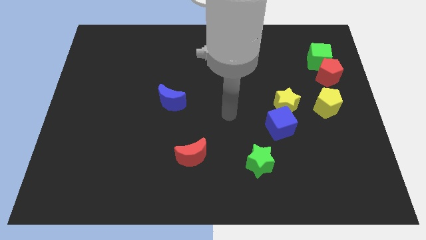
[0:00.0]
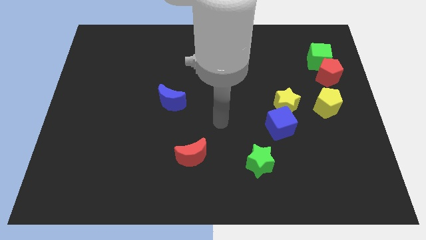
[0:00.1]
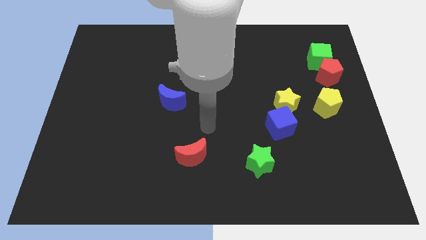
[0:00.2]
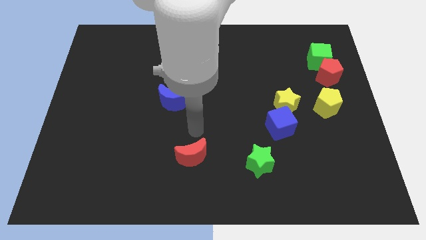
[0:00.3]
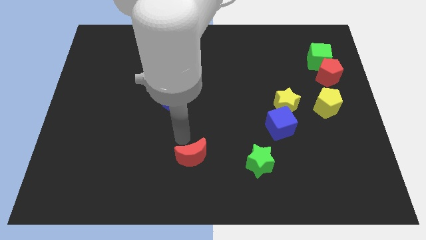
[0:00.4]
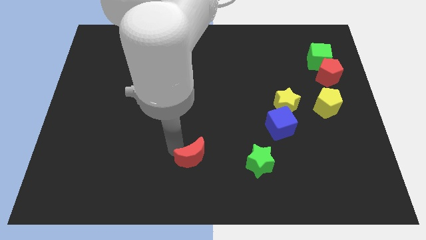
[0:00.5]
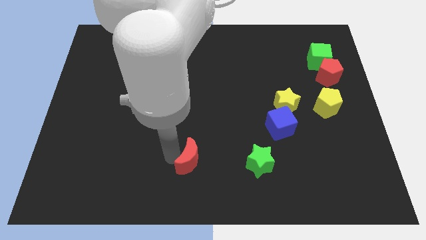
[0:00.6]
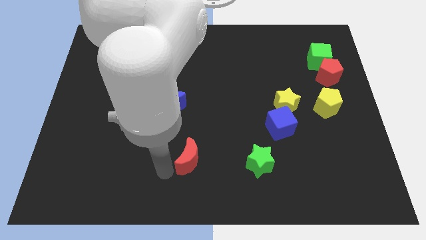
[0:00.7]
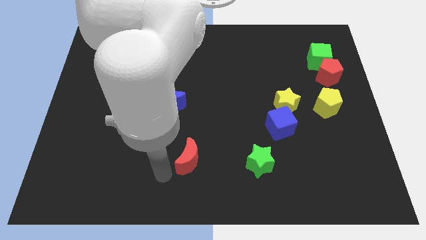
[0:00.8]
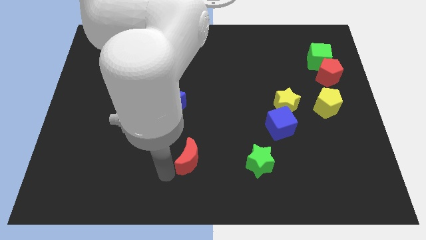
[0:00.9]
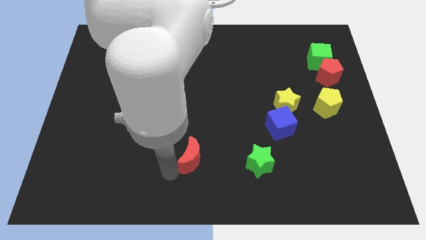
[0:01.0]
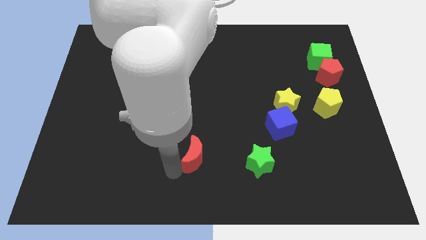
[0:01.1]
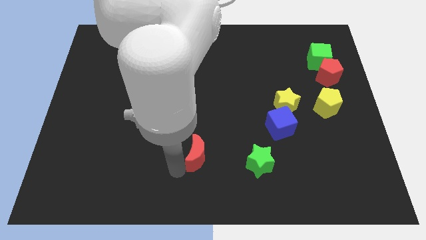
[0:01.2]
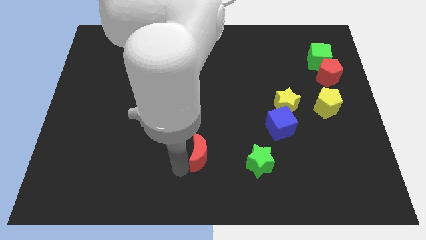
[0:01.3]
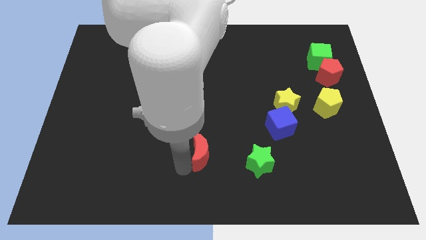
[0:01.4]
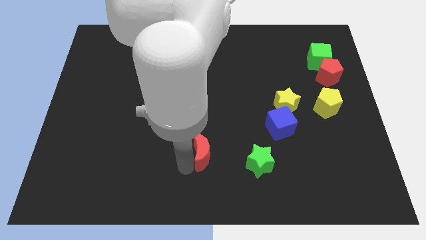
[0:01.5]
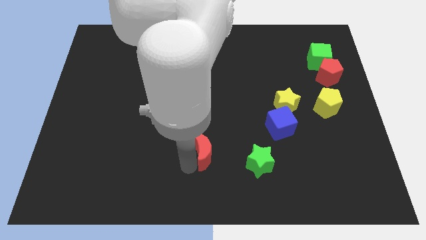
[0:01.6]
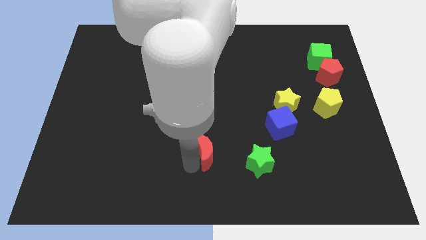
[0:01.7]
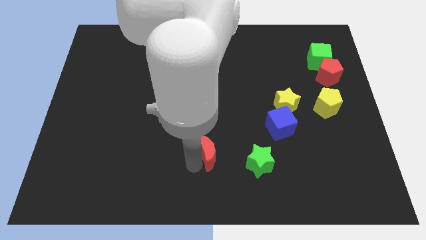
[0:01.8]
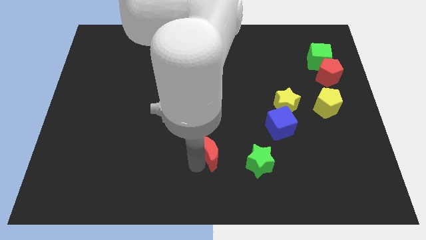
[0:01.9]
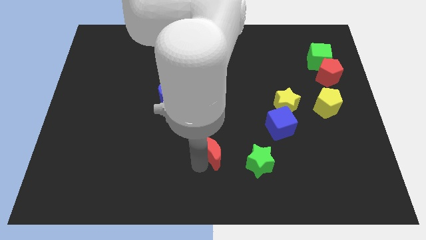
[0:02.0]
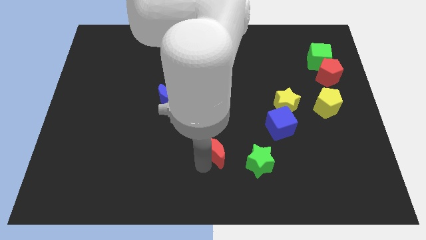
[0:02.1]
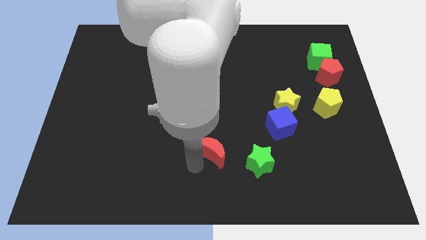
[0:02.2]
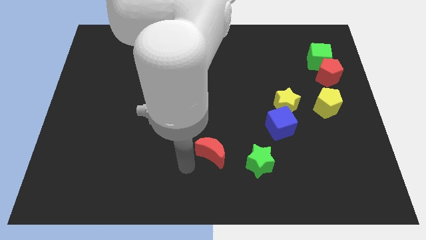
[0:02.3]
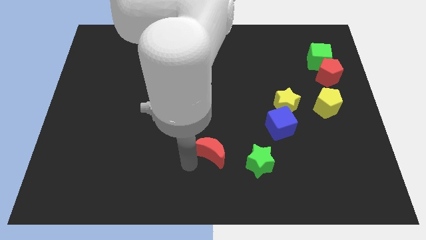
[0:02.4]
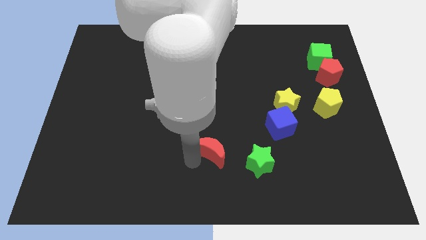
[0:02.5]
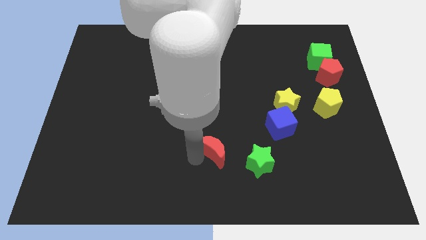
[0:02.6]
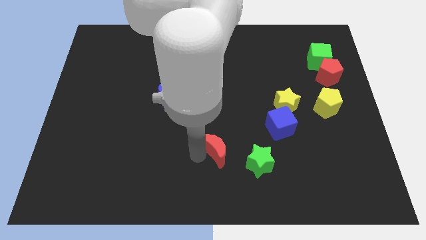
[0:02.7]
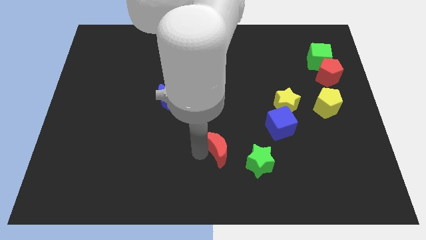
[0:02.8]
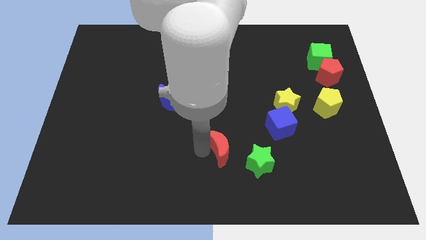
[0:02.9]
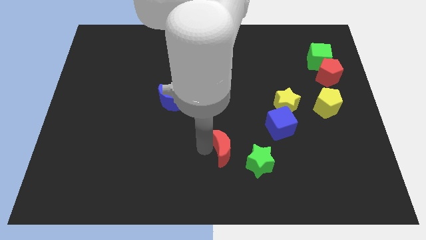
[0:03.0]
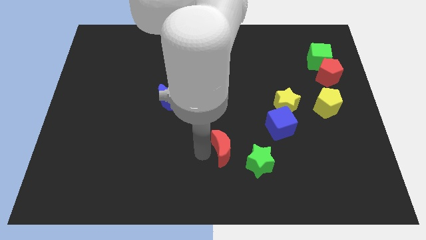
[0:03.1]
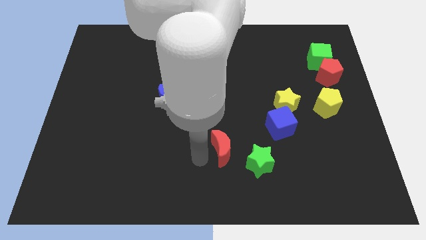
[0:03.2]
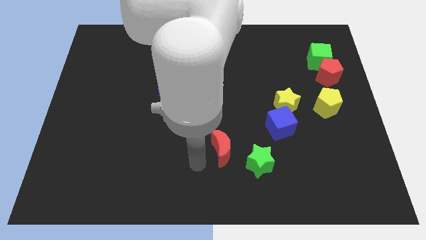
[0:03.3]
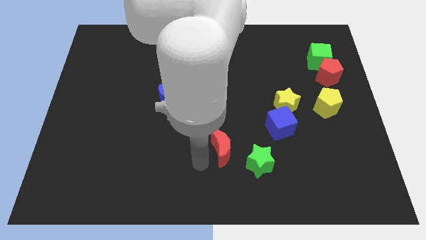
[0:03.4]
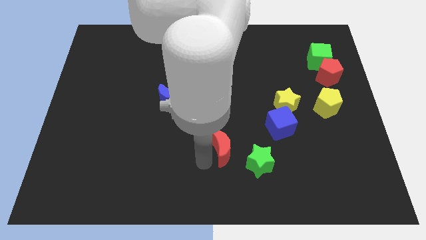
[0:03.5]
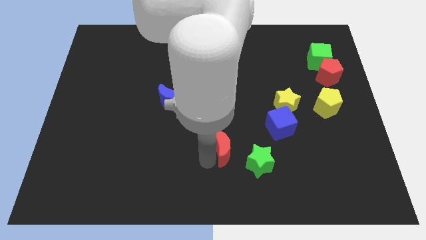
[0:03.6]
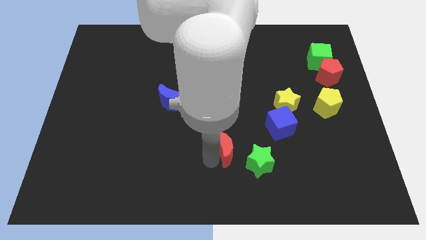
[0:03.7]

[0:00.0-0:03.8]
move the red moon a little right

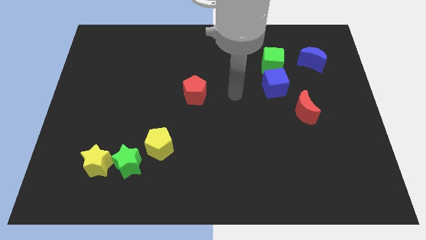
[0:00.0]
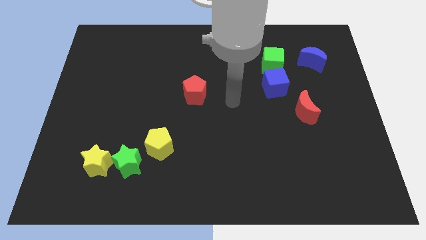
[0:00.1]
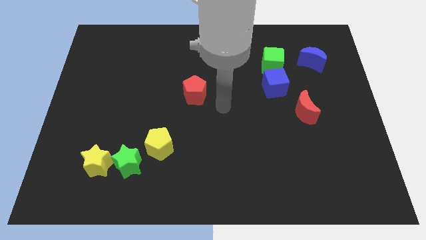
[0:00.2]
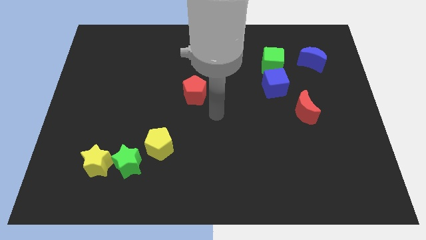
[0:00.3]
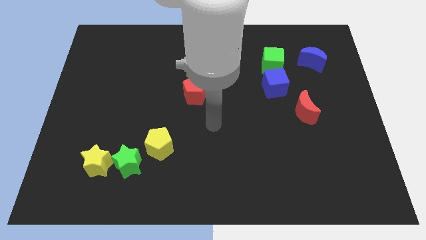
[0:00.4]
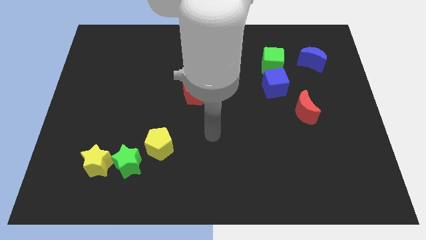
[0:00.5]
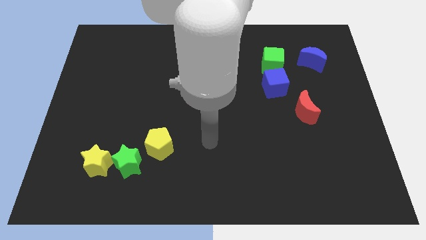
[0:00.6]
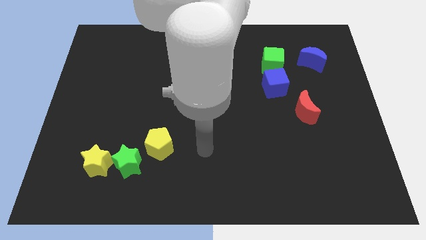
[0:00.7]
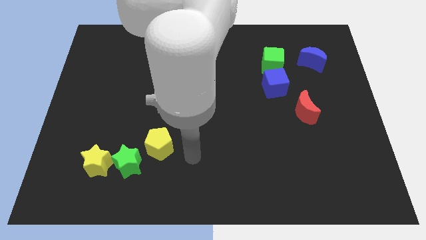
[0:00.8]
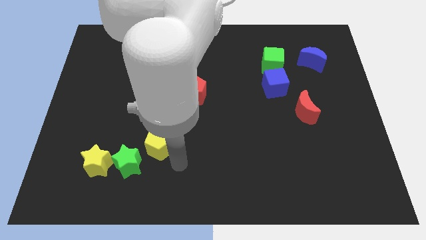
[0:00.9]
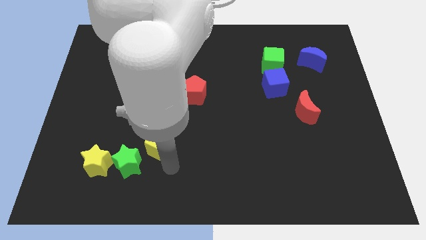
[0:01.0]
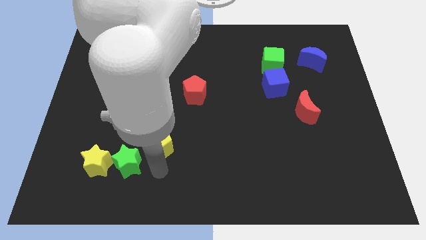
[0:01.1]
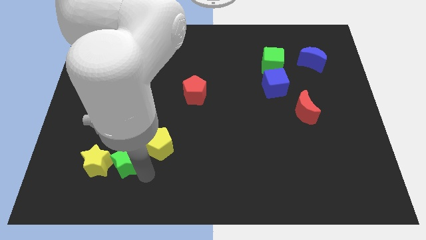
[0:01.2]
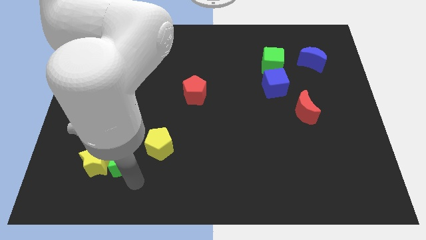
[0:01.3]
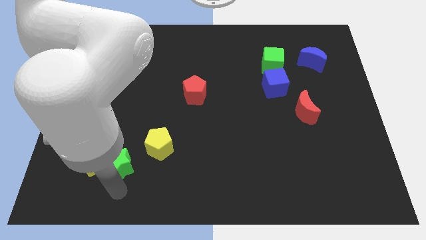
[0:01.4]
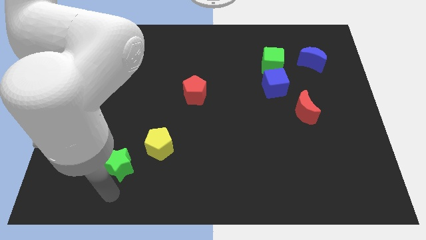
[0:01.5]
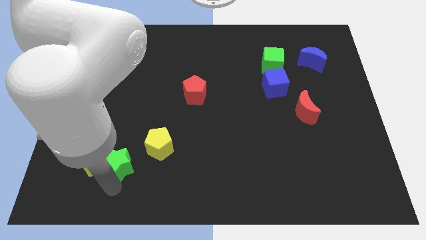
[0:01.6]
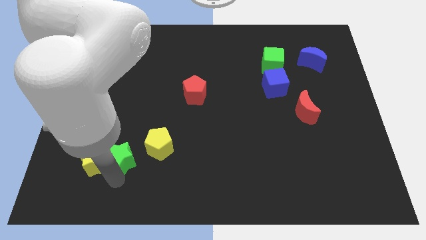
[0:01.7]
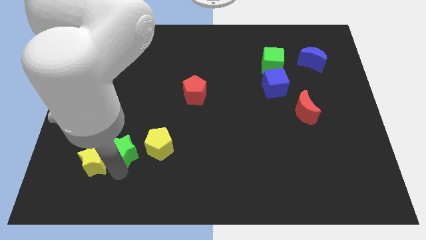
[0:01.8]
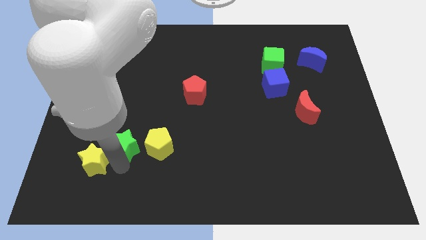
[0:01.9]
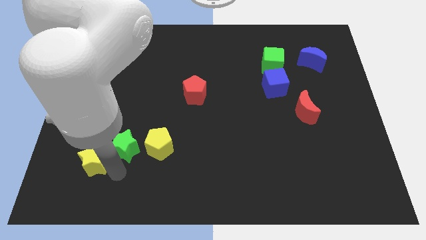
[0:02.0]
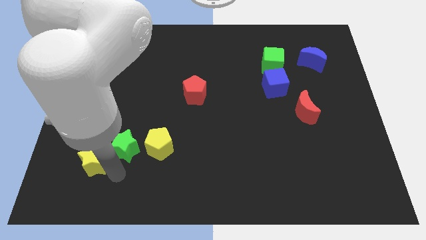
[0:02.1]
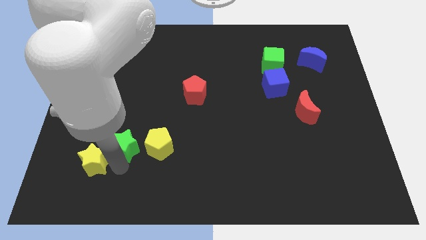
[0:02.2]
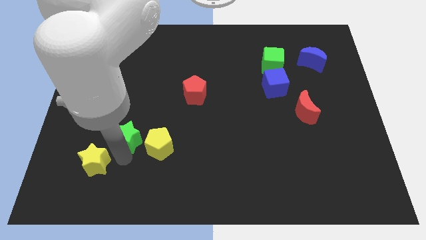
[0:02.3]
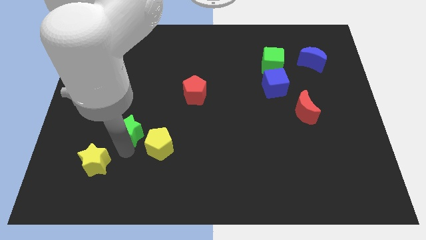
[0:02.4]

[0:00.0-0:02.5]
move the green star a little bit up

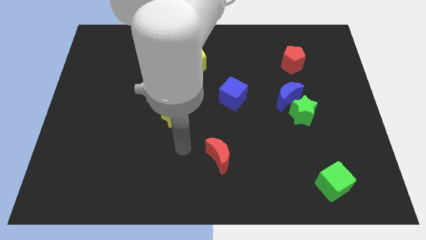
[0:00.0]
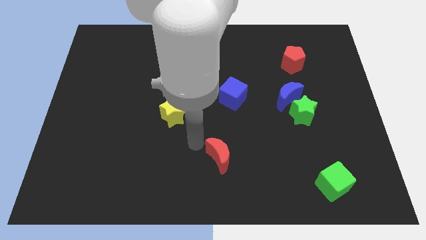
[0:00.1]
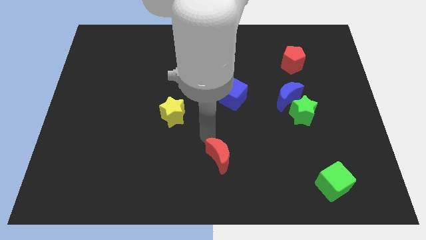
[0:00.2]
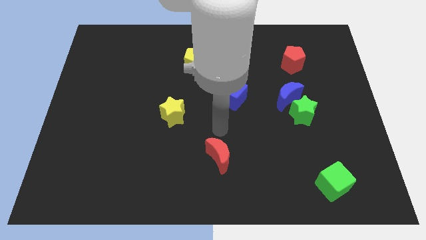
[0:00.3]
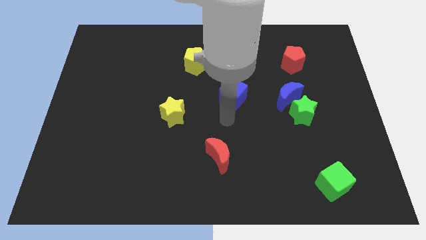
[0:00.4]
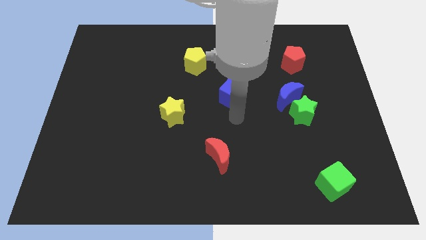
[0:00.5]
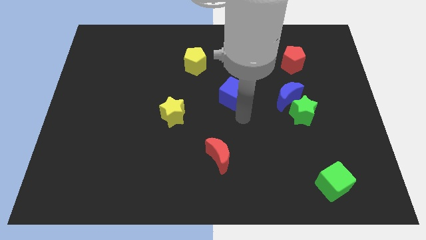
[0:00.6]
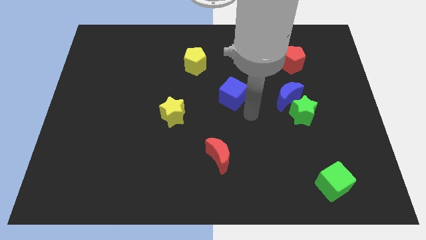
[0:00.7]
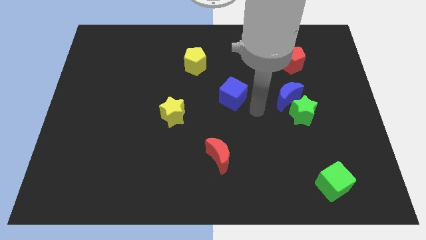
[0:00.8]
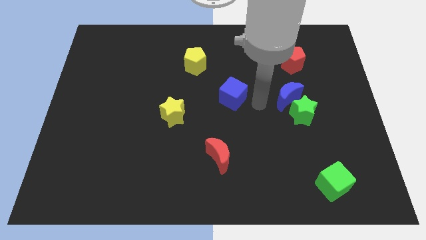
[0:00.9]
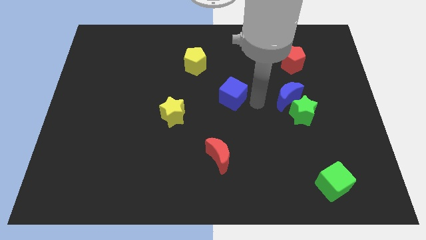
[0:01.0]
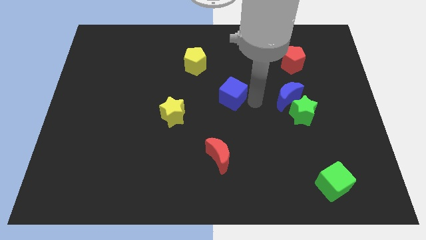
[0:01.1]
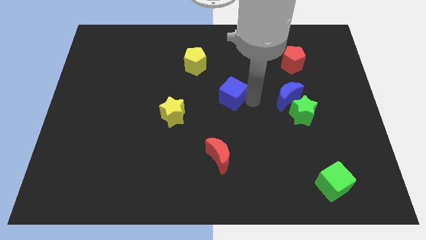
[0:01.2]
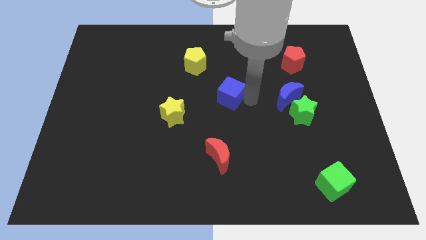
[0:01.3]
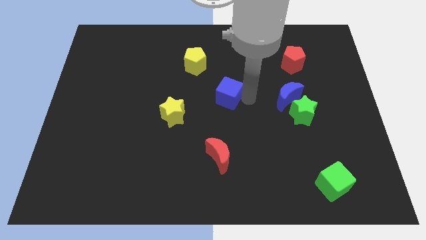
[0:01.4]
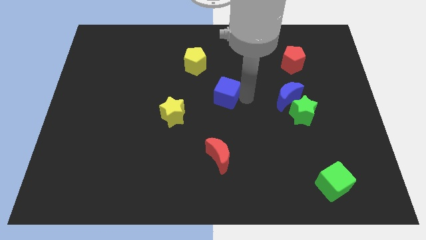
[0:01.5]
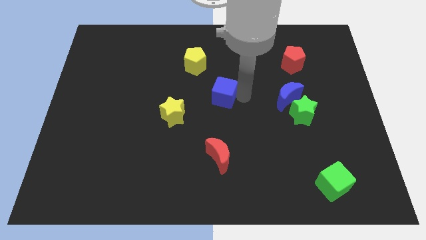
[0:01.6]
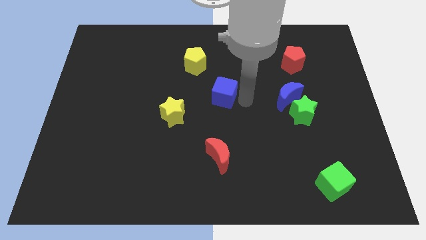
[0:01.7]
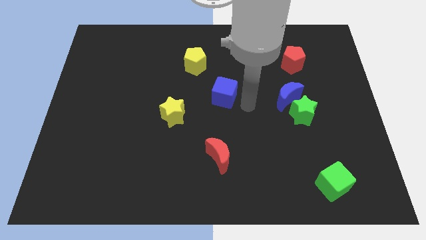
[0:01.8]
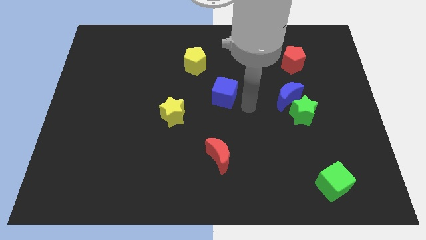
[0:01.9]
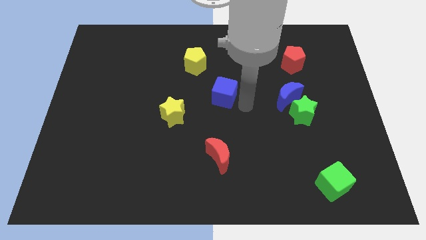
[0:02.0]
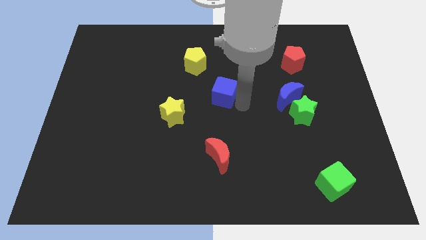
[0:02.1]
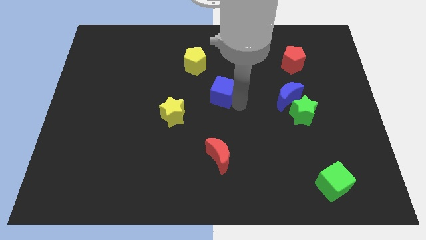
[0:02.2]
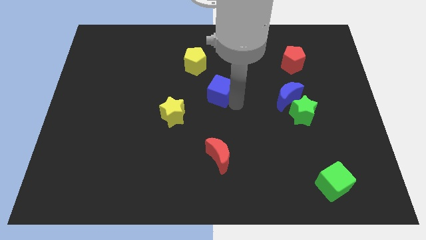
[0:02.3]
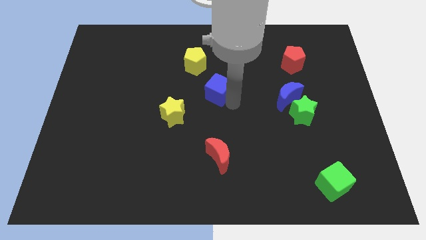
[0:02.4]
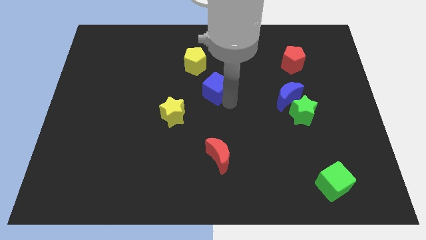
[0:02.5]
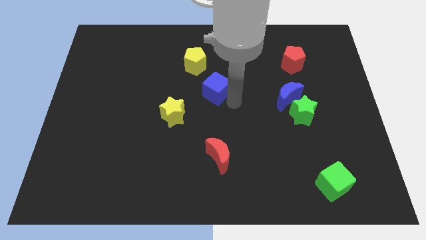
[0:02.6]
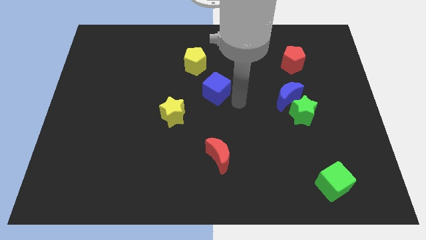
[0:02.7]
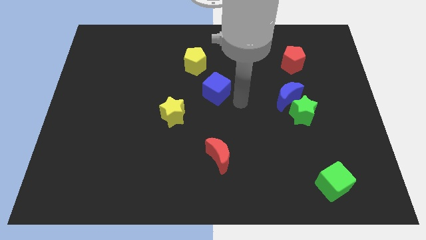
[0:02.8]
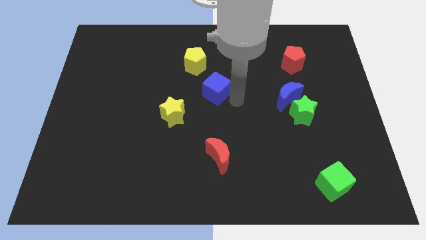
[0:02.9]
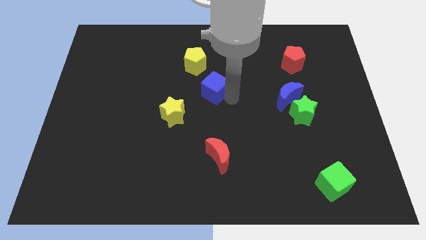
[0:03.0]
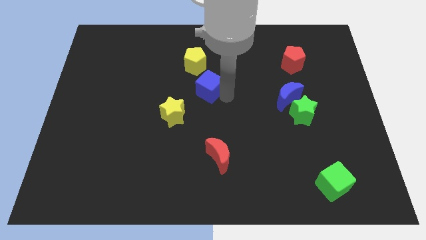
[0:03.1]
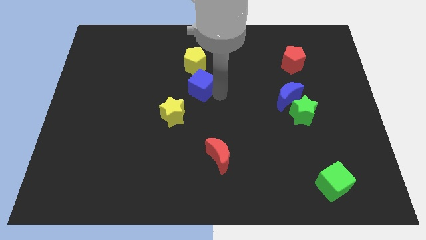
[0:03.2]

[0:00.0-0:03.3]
move the blue cube slightly up and then left
